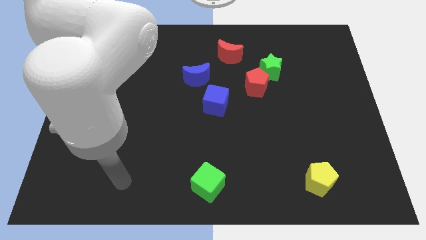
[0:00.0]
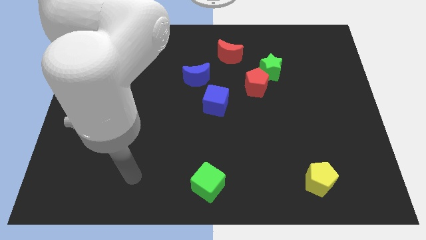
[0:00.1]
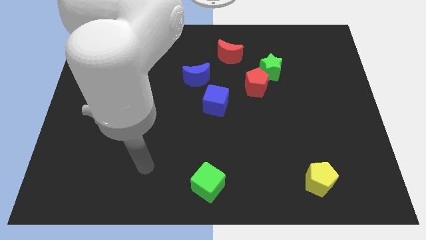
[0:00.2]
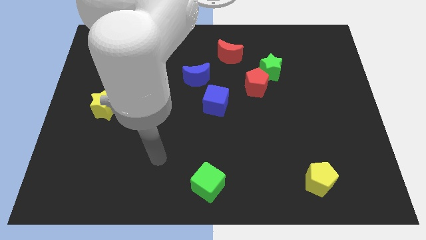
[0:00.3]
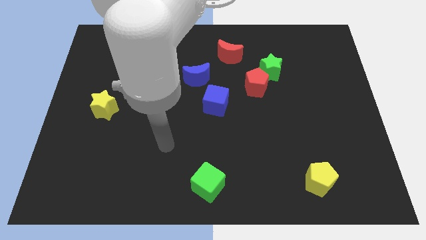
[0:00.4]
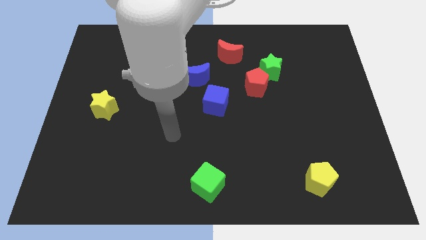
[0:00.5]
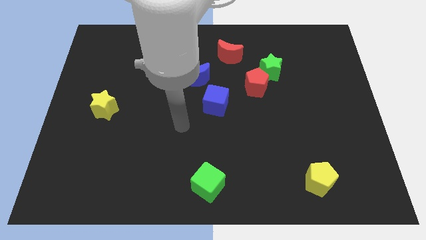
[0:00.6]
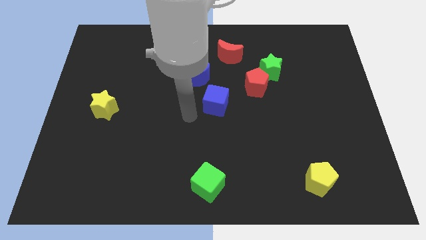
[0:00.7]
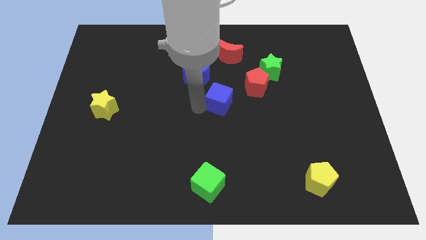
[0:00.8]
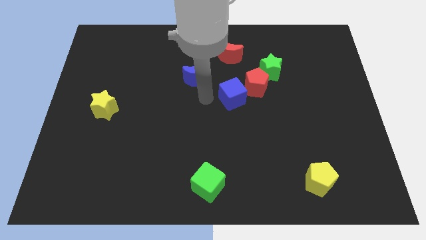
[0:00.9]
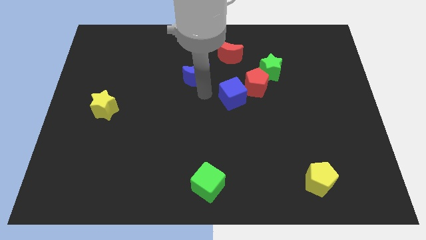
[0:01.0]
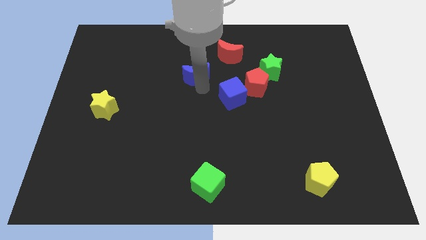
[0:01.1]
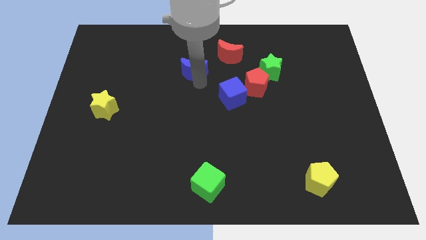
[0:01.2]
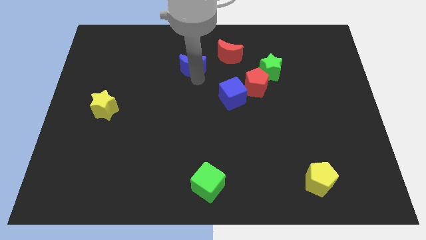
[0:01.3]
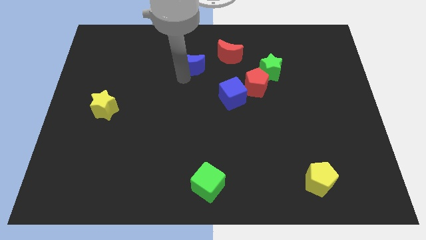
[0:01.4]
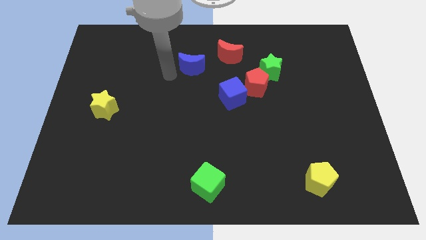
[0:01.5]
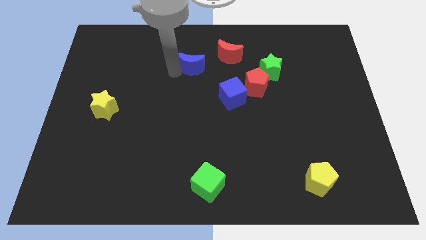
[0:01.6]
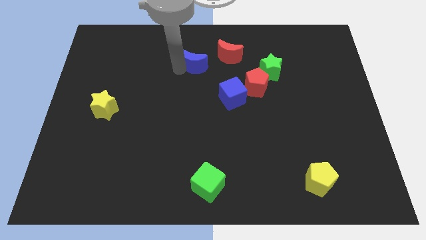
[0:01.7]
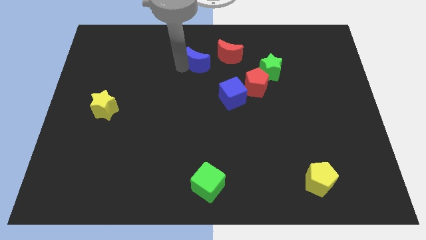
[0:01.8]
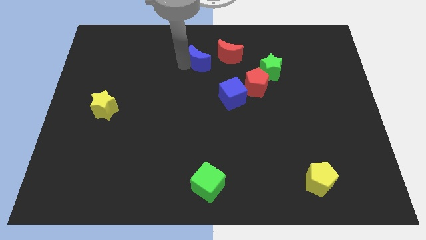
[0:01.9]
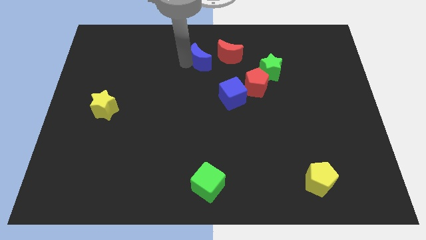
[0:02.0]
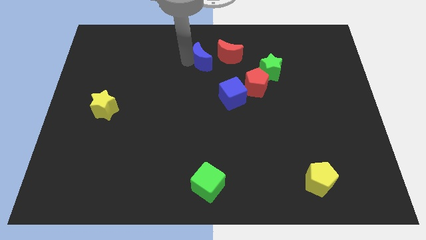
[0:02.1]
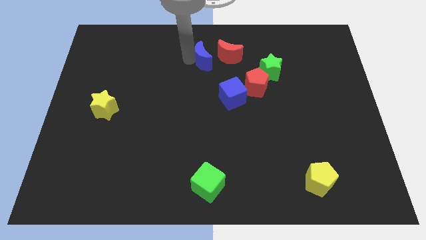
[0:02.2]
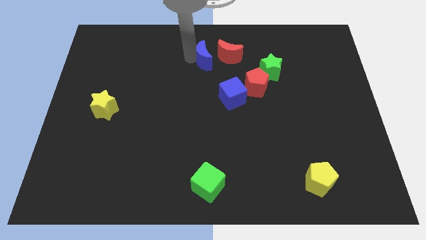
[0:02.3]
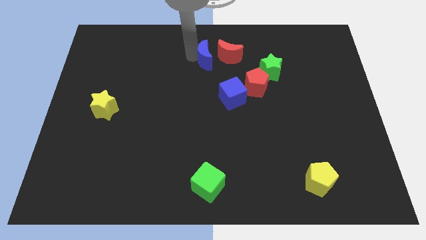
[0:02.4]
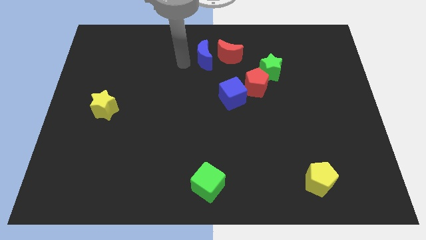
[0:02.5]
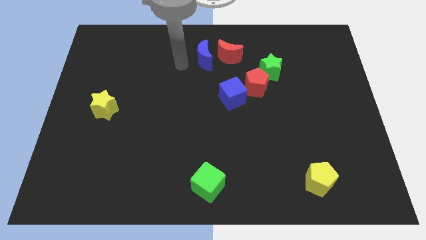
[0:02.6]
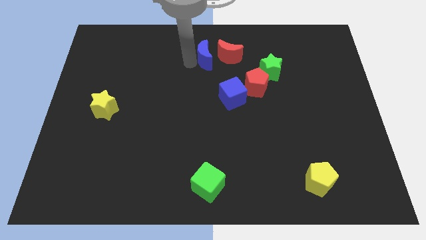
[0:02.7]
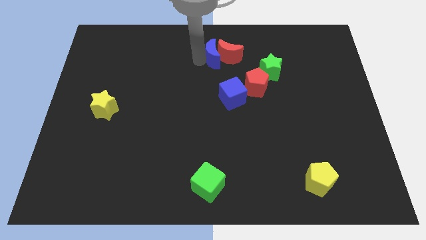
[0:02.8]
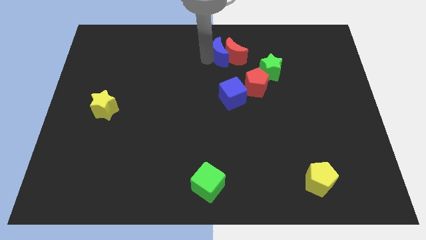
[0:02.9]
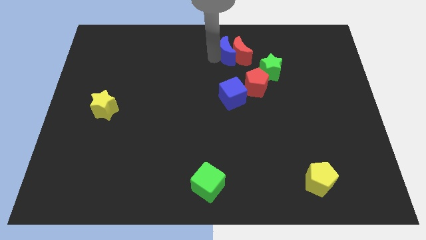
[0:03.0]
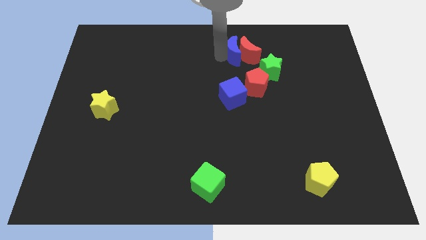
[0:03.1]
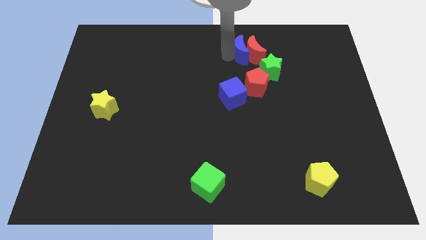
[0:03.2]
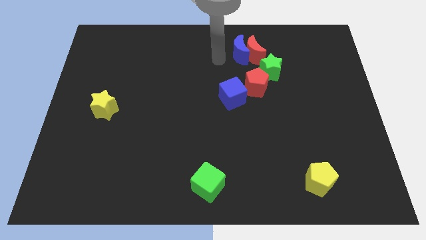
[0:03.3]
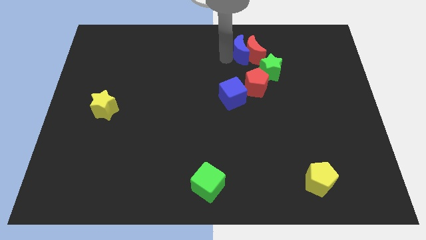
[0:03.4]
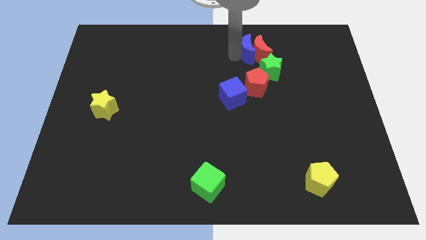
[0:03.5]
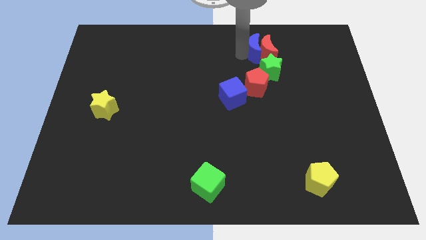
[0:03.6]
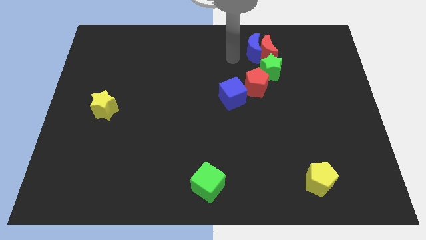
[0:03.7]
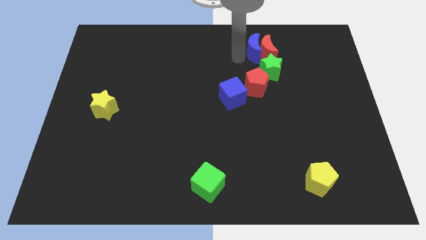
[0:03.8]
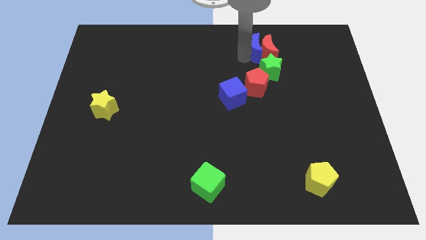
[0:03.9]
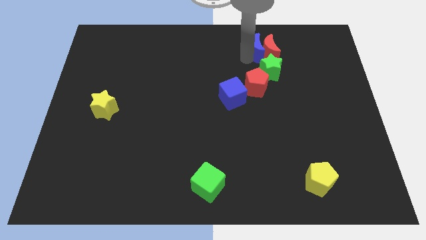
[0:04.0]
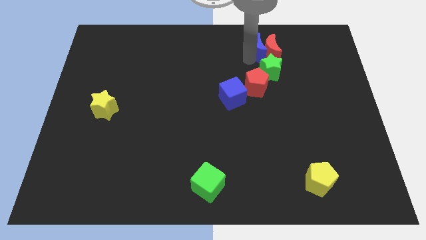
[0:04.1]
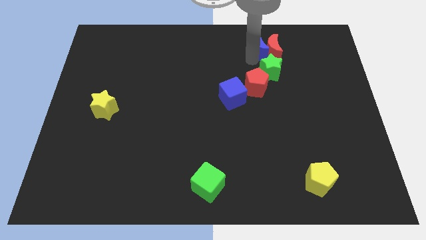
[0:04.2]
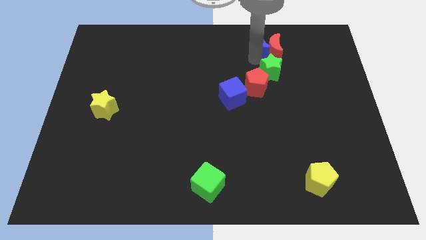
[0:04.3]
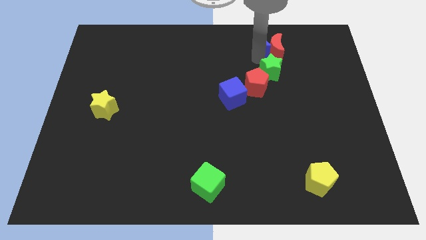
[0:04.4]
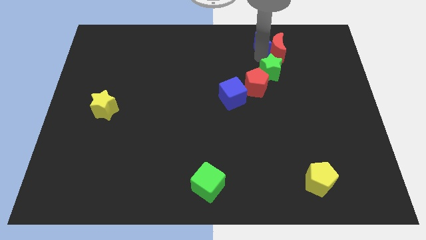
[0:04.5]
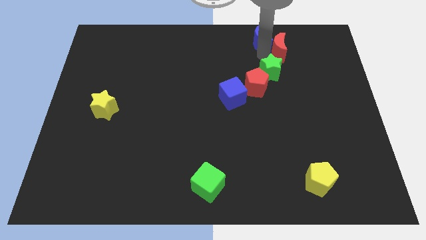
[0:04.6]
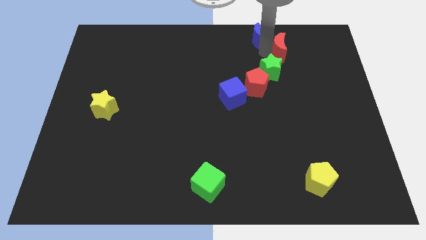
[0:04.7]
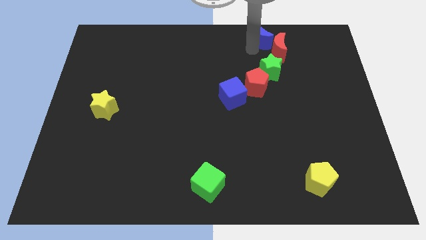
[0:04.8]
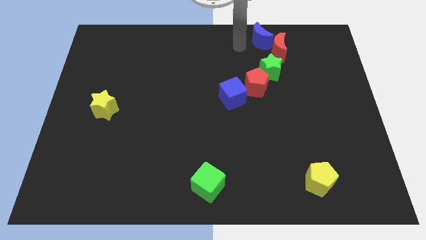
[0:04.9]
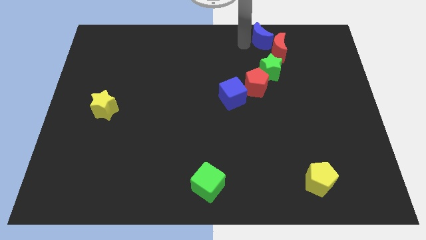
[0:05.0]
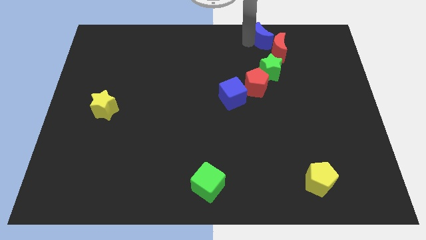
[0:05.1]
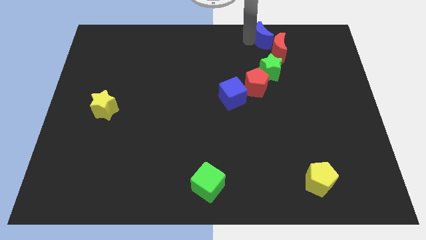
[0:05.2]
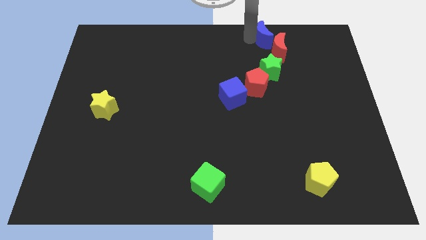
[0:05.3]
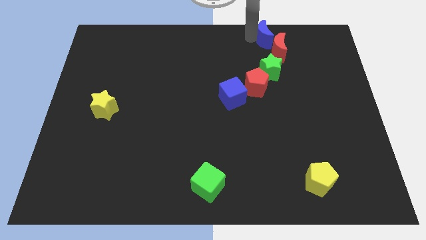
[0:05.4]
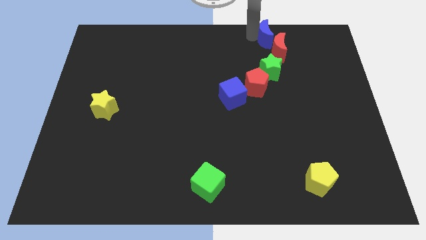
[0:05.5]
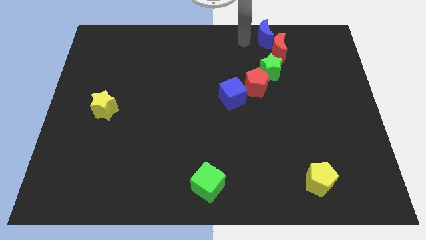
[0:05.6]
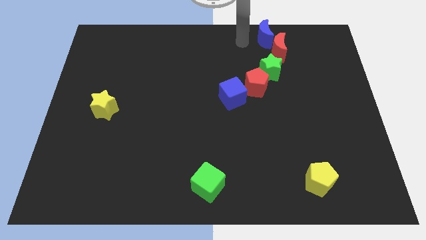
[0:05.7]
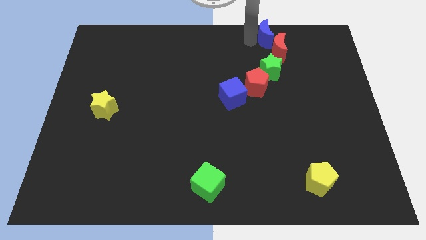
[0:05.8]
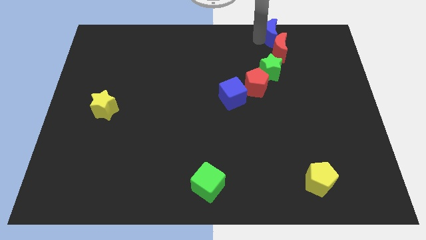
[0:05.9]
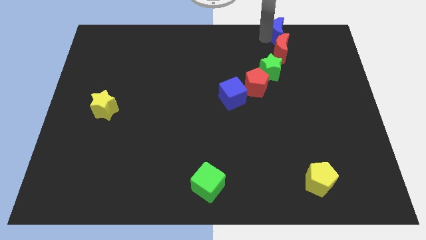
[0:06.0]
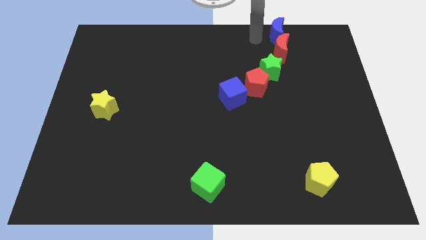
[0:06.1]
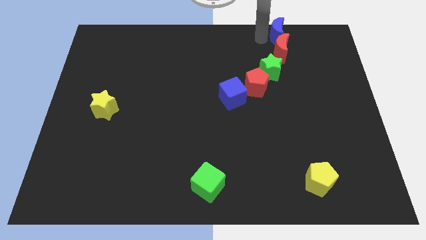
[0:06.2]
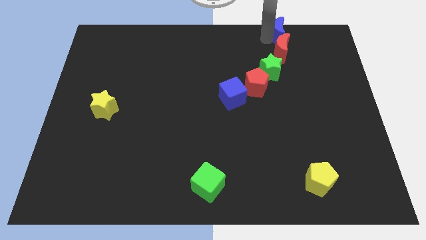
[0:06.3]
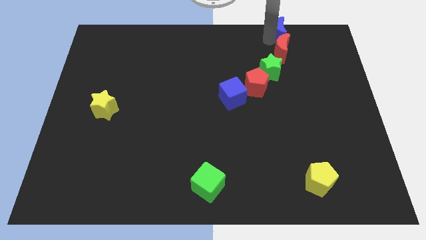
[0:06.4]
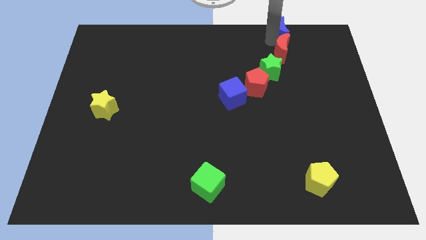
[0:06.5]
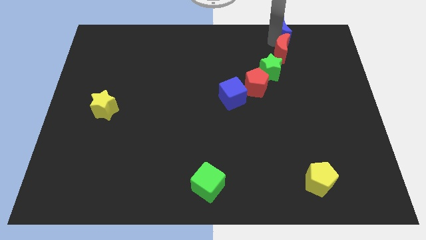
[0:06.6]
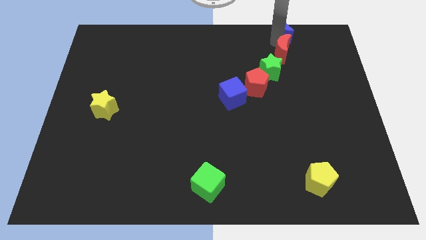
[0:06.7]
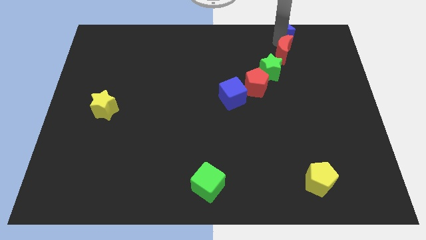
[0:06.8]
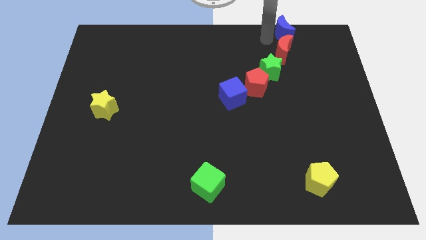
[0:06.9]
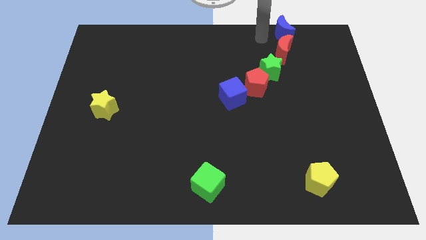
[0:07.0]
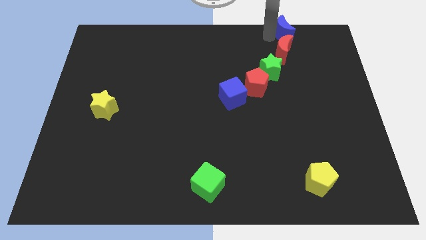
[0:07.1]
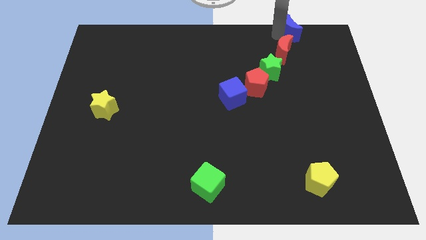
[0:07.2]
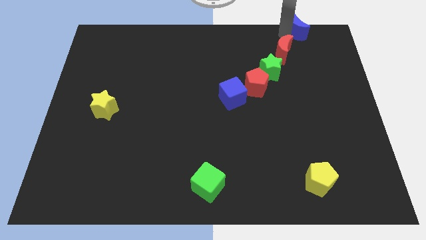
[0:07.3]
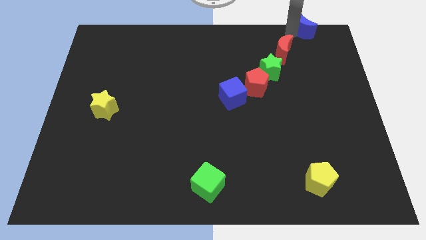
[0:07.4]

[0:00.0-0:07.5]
push the blue moon to the top right of the board
